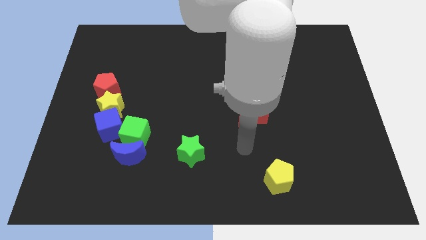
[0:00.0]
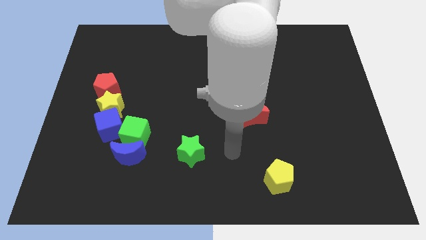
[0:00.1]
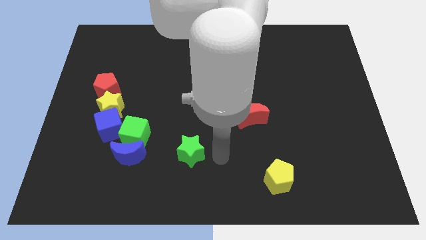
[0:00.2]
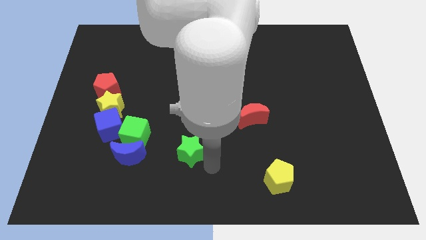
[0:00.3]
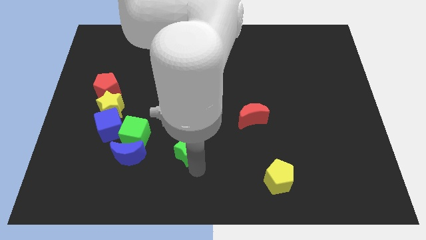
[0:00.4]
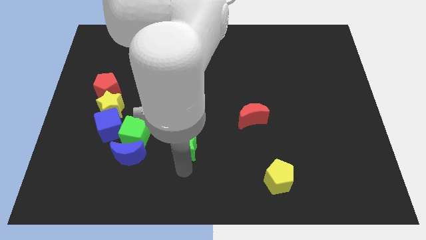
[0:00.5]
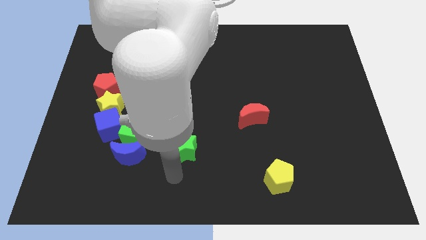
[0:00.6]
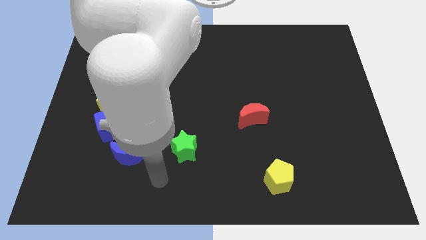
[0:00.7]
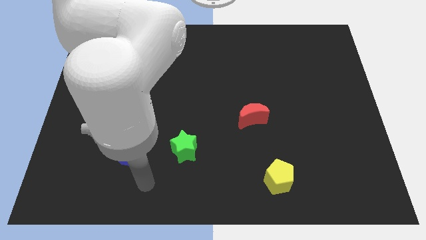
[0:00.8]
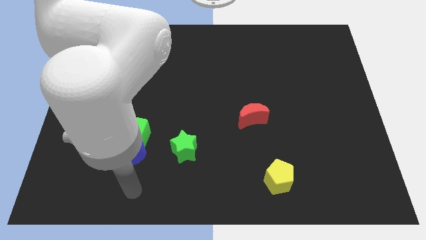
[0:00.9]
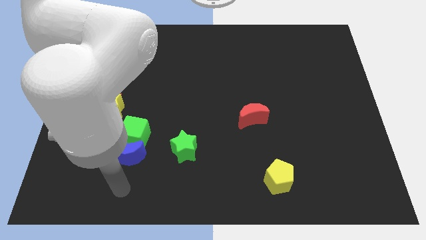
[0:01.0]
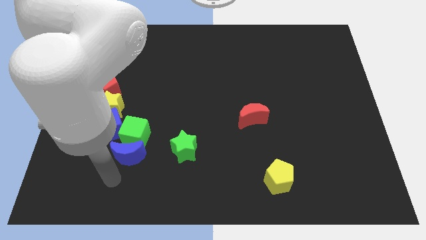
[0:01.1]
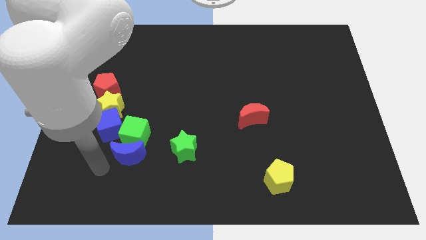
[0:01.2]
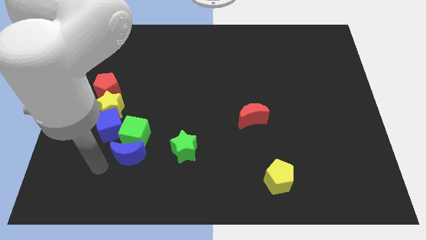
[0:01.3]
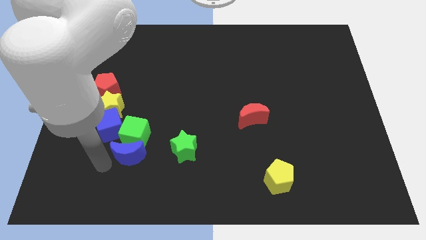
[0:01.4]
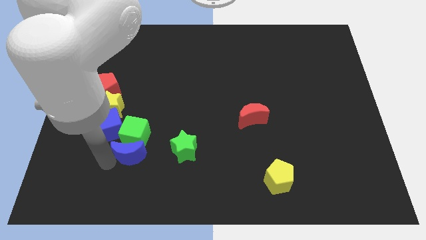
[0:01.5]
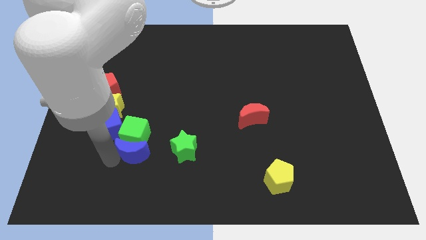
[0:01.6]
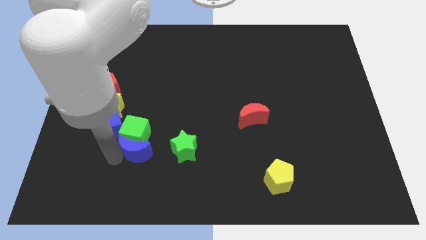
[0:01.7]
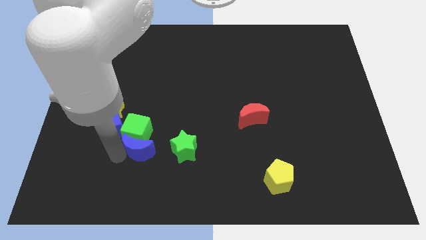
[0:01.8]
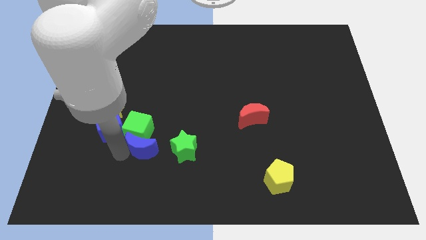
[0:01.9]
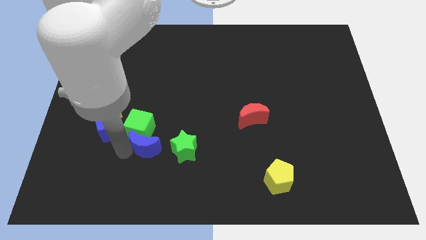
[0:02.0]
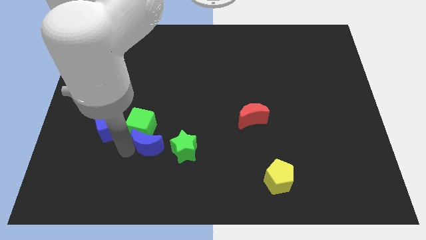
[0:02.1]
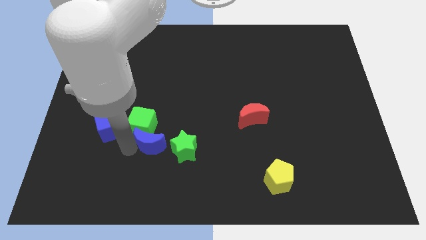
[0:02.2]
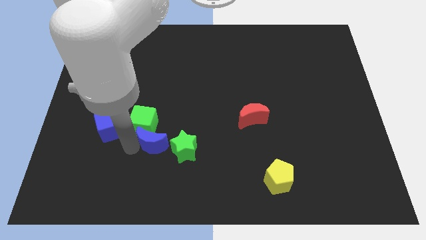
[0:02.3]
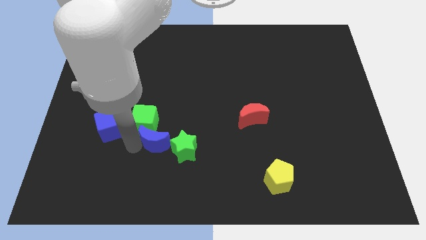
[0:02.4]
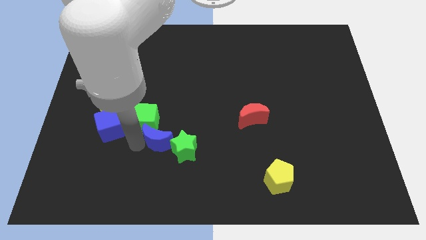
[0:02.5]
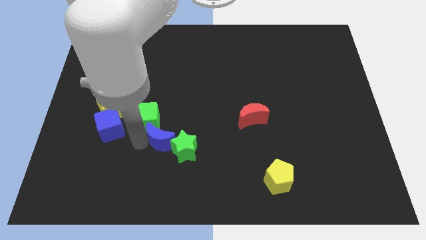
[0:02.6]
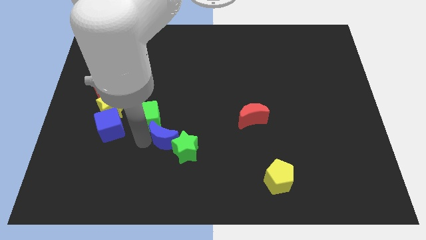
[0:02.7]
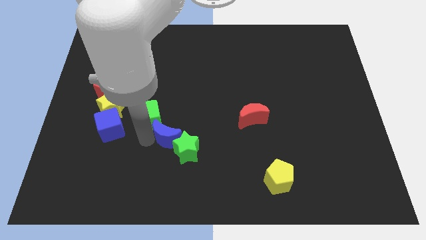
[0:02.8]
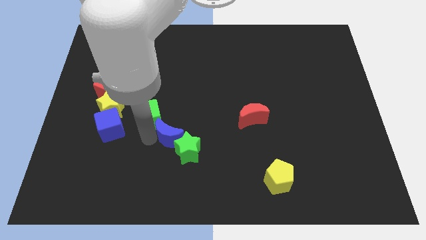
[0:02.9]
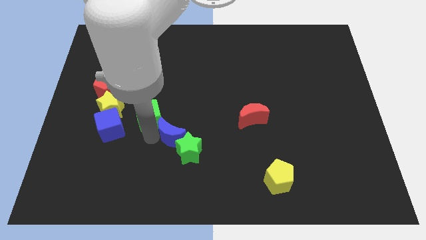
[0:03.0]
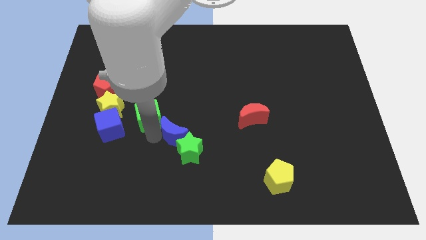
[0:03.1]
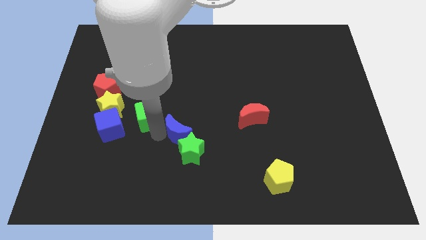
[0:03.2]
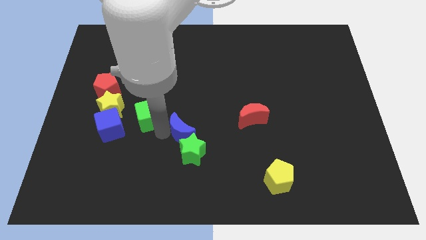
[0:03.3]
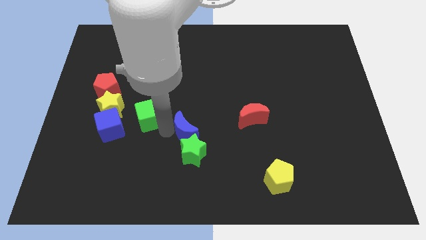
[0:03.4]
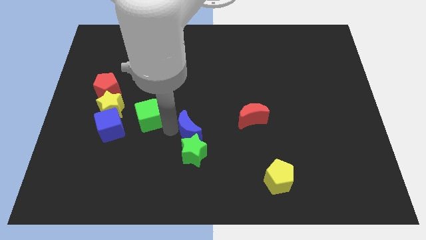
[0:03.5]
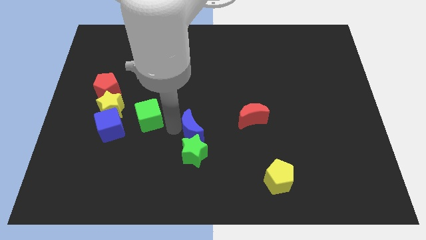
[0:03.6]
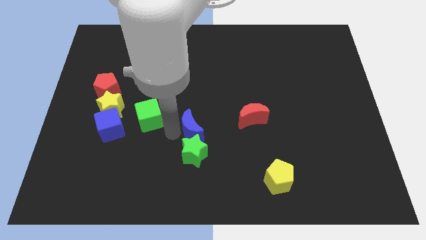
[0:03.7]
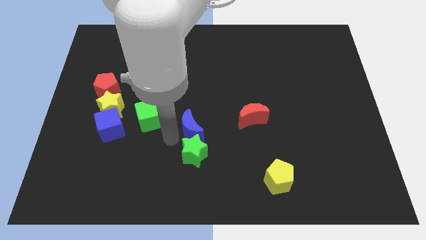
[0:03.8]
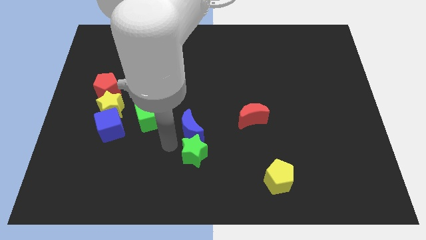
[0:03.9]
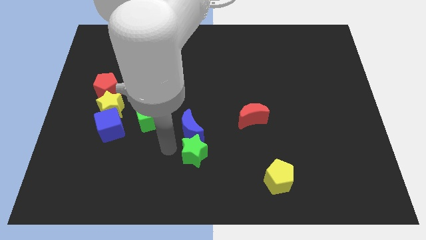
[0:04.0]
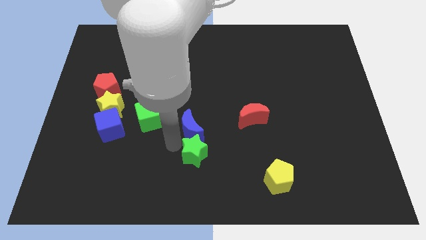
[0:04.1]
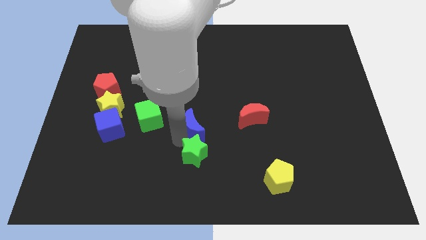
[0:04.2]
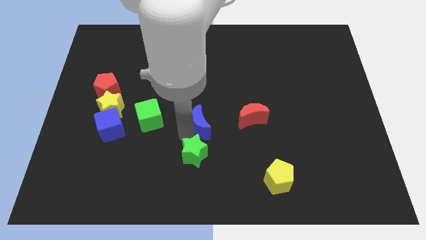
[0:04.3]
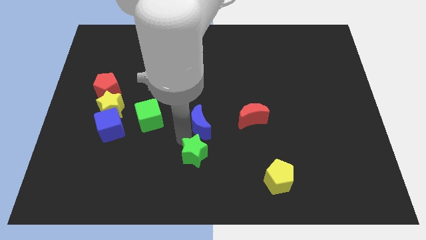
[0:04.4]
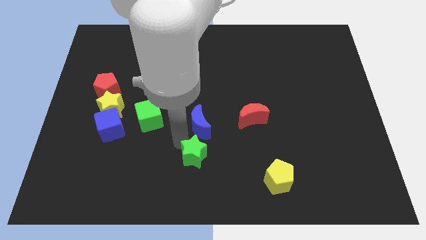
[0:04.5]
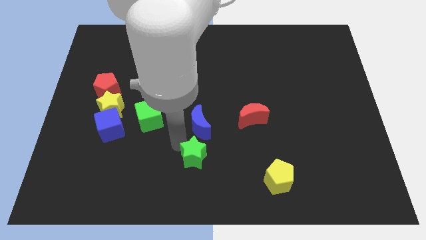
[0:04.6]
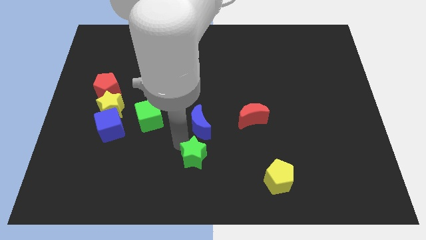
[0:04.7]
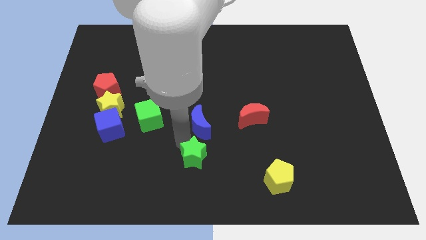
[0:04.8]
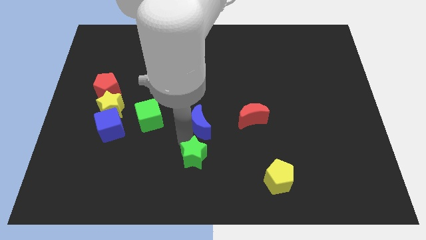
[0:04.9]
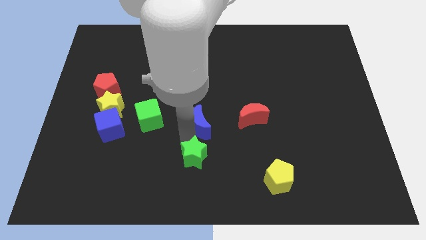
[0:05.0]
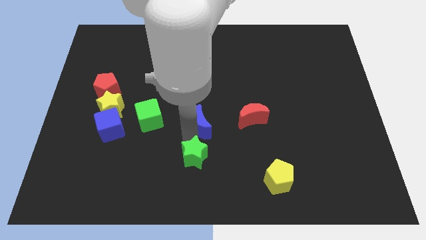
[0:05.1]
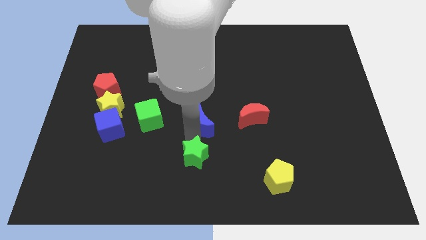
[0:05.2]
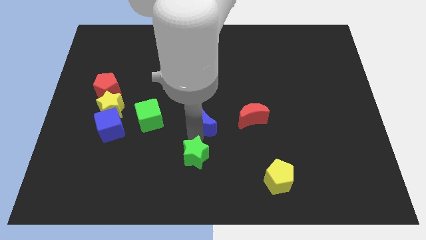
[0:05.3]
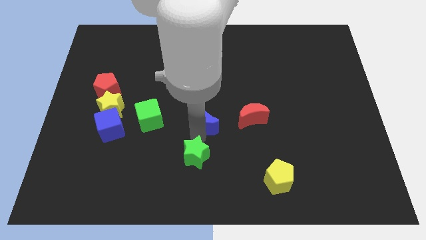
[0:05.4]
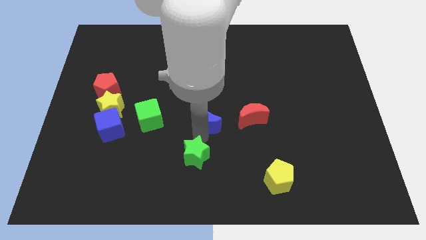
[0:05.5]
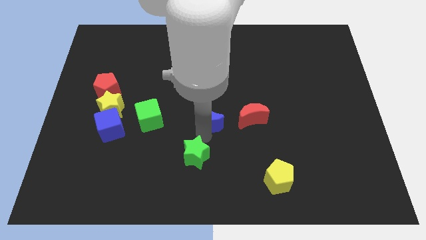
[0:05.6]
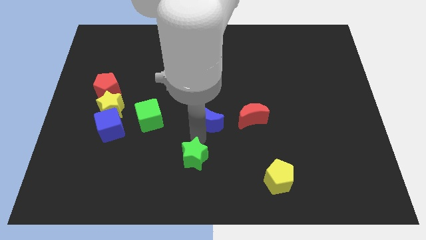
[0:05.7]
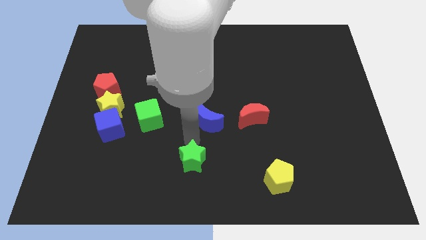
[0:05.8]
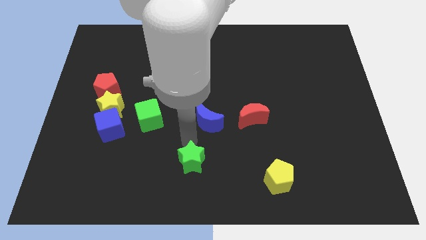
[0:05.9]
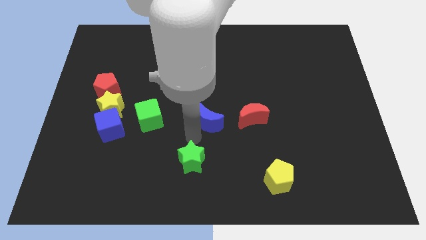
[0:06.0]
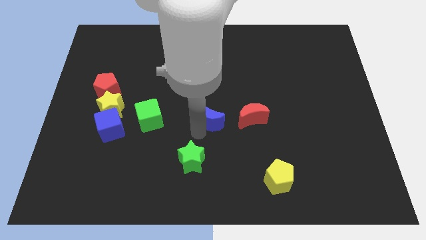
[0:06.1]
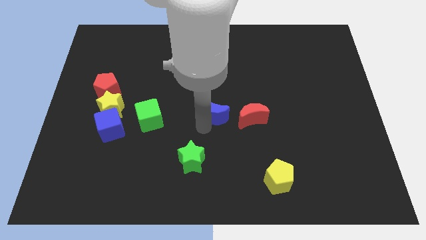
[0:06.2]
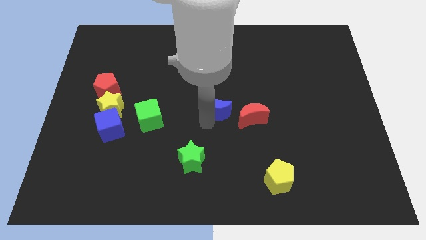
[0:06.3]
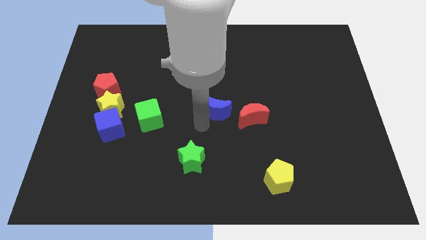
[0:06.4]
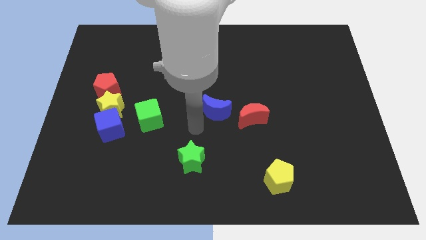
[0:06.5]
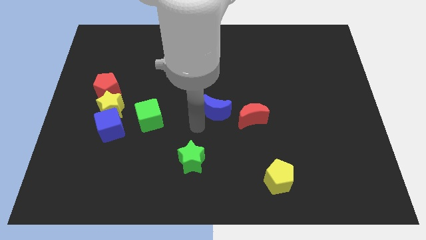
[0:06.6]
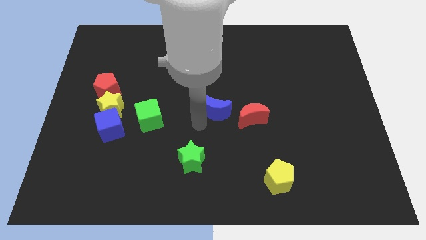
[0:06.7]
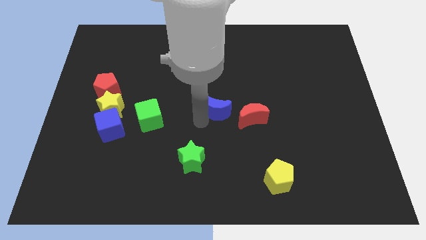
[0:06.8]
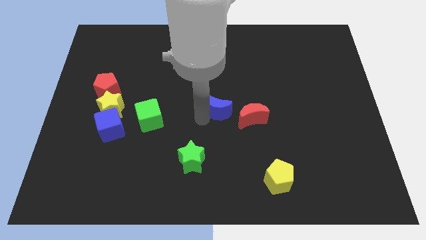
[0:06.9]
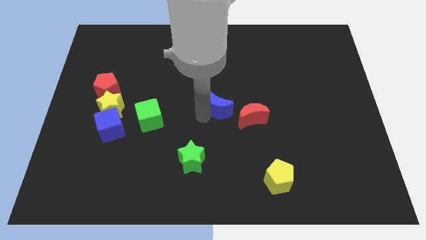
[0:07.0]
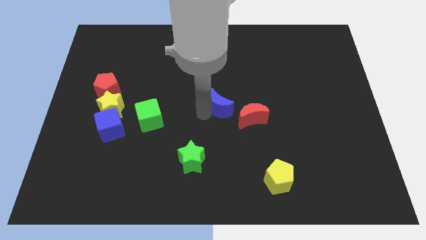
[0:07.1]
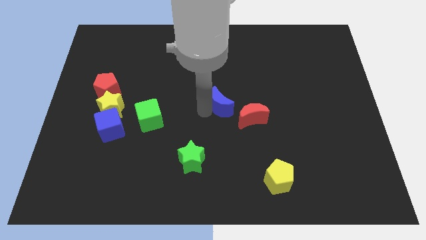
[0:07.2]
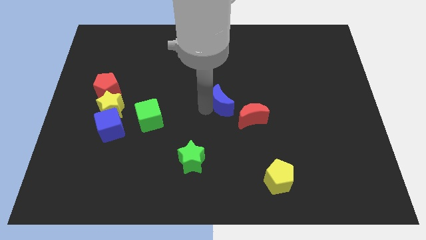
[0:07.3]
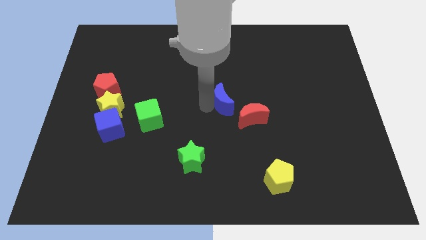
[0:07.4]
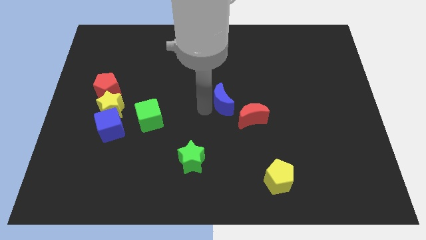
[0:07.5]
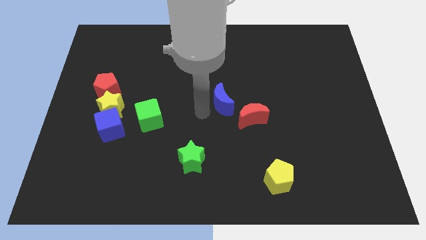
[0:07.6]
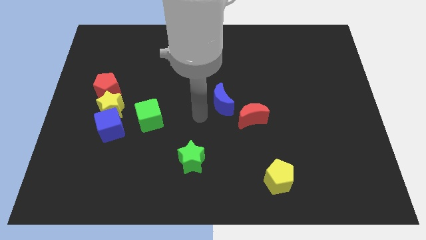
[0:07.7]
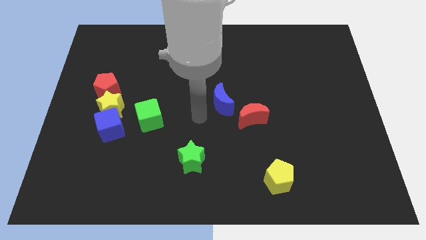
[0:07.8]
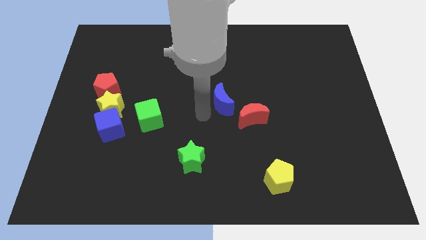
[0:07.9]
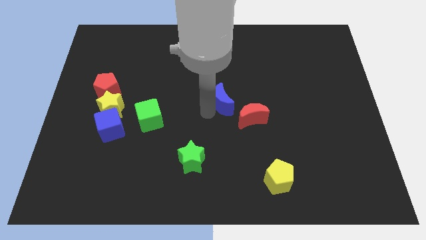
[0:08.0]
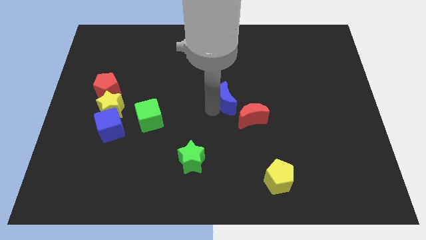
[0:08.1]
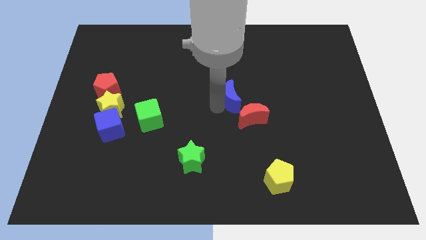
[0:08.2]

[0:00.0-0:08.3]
slide the blue moon to the top of the red moon
